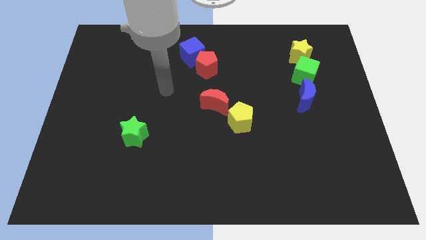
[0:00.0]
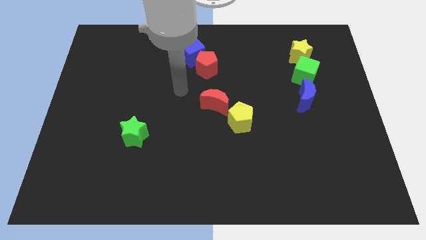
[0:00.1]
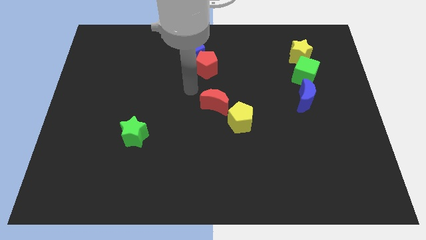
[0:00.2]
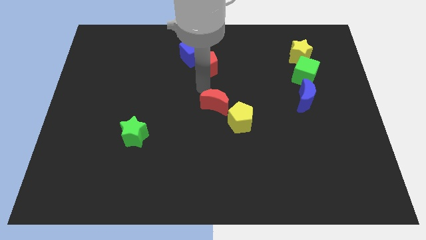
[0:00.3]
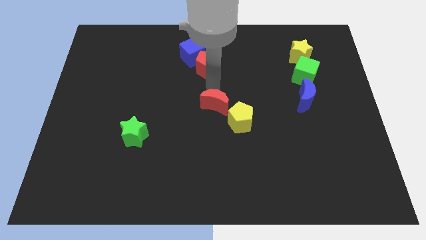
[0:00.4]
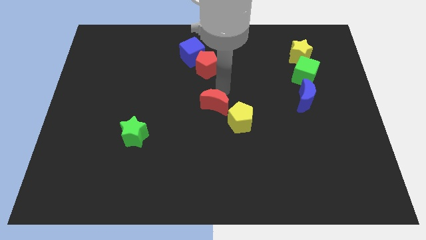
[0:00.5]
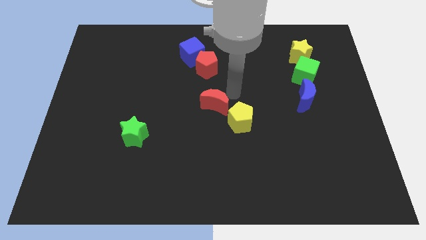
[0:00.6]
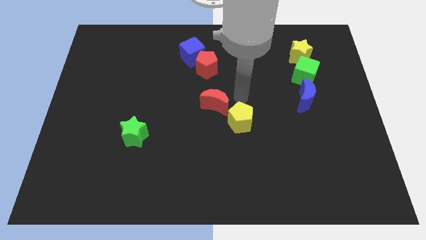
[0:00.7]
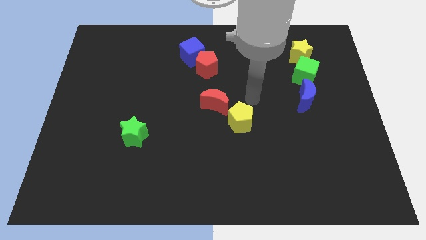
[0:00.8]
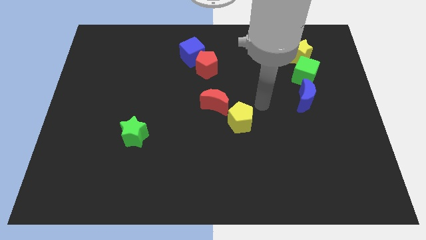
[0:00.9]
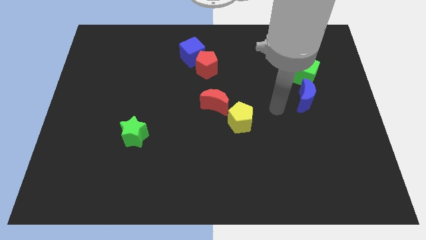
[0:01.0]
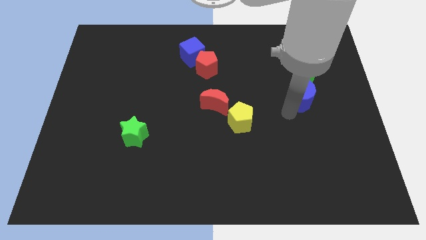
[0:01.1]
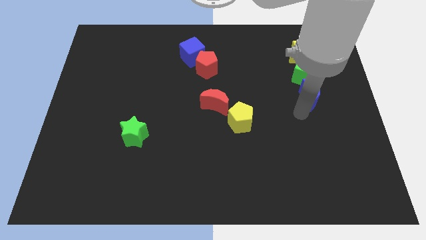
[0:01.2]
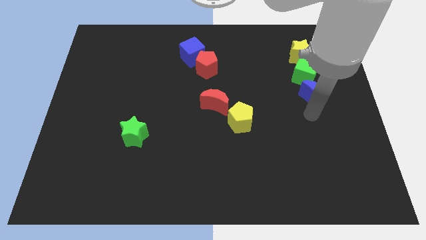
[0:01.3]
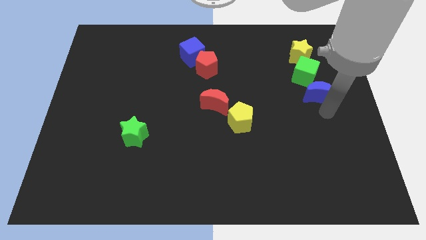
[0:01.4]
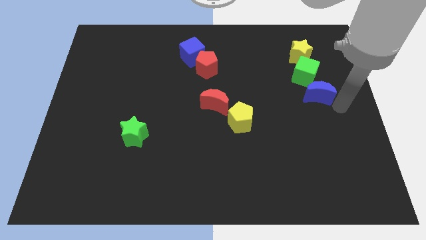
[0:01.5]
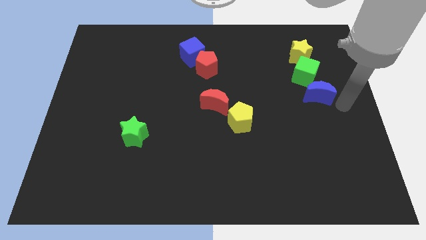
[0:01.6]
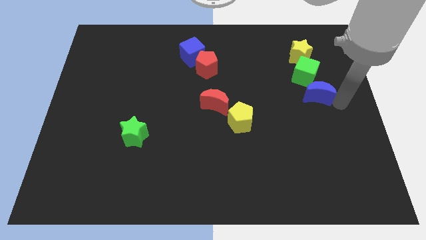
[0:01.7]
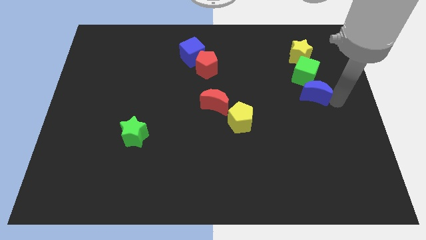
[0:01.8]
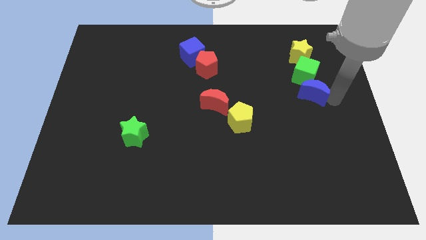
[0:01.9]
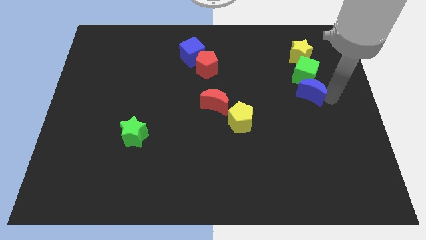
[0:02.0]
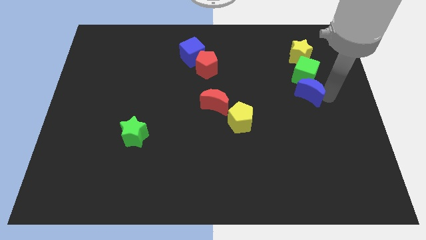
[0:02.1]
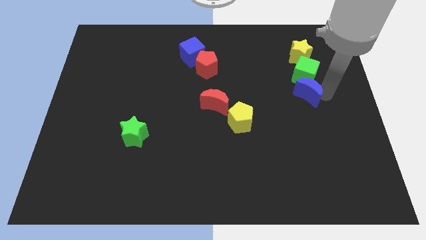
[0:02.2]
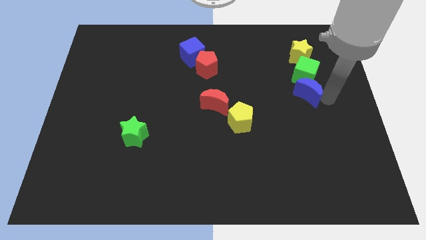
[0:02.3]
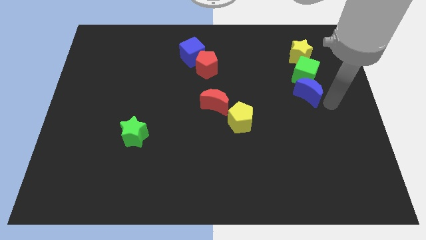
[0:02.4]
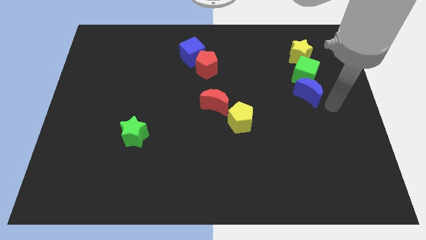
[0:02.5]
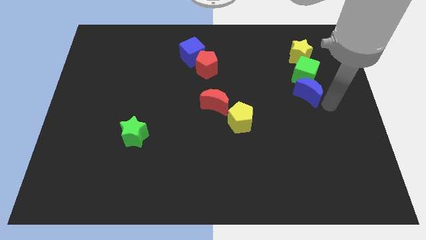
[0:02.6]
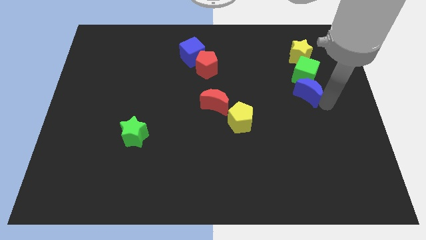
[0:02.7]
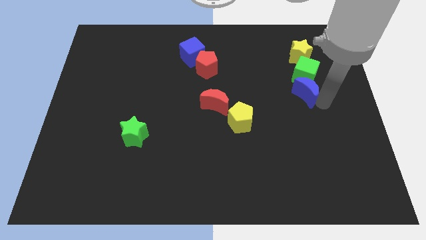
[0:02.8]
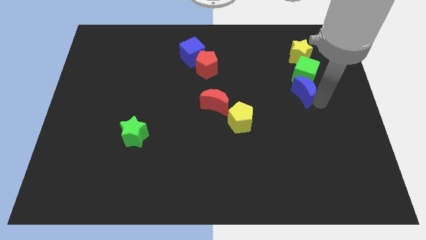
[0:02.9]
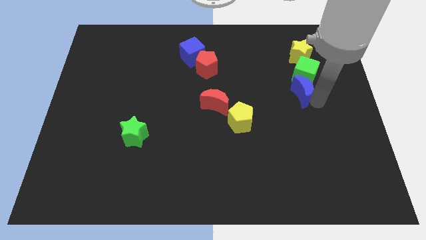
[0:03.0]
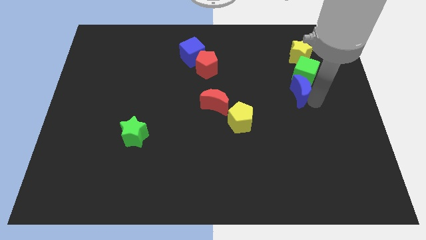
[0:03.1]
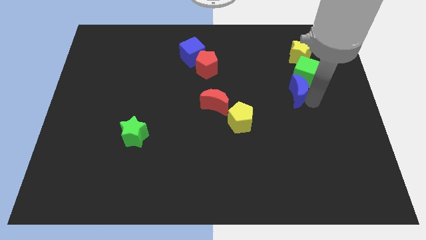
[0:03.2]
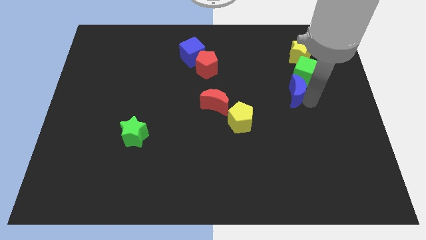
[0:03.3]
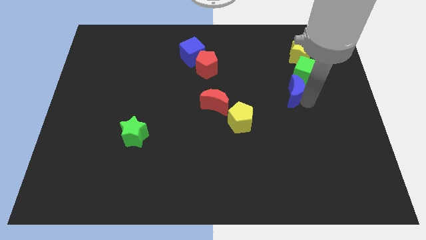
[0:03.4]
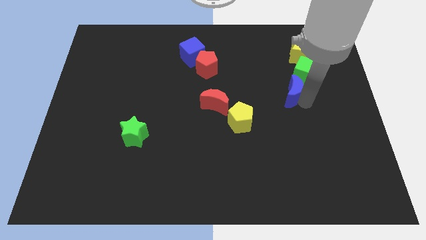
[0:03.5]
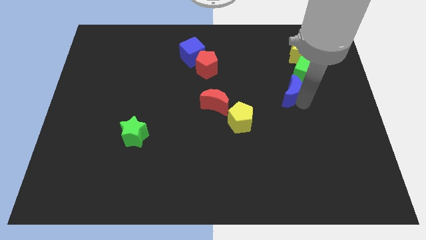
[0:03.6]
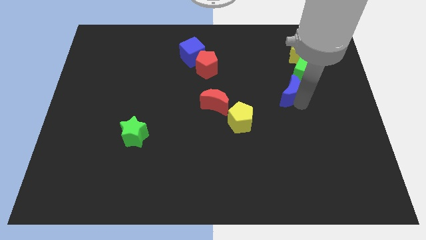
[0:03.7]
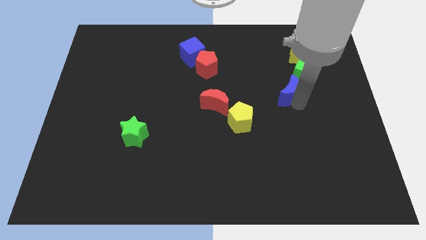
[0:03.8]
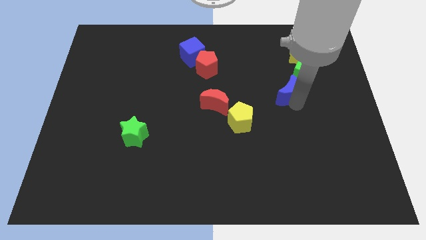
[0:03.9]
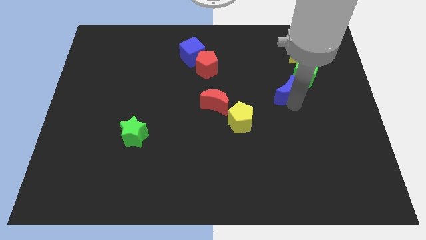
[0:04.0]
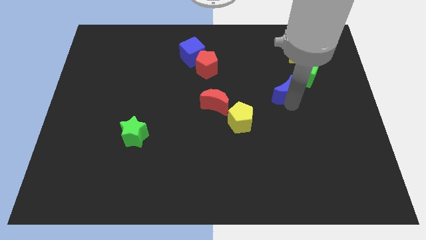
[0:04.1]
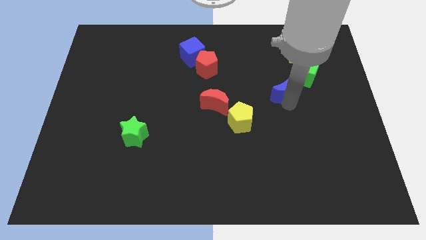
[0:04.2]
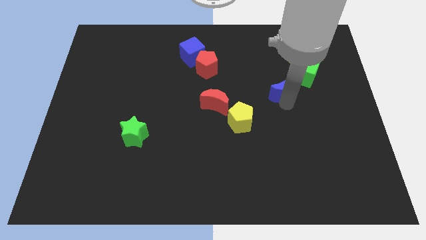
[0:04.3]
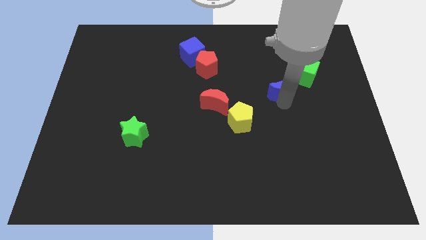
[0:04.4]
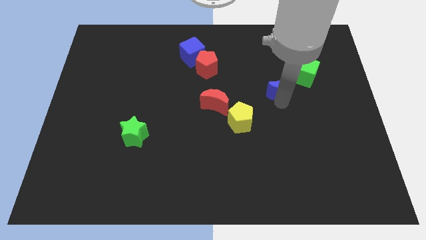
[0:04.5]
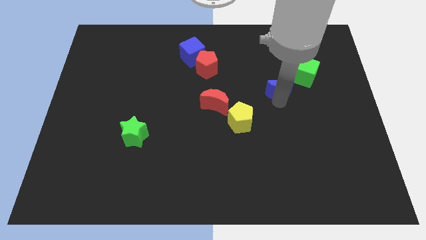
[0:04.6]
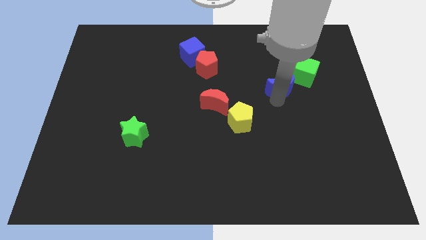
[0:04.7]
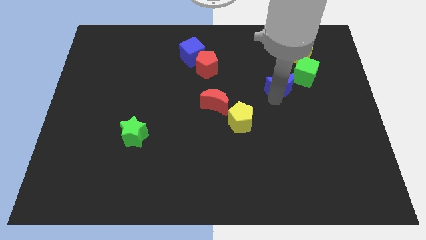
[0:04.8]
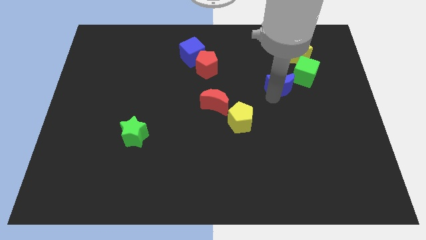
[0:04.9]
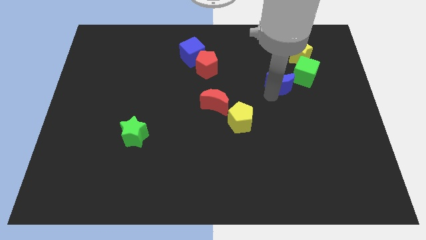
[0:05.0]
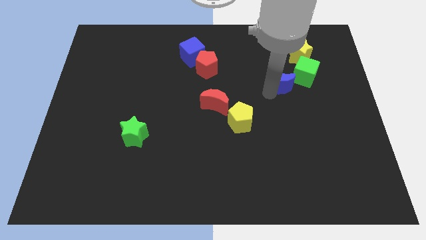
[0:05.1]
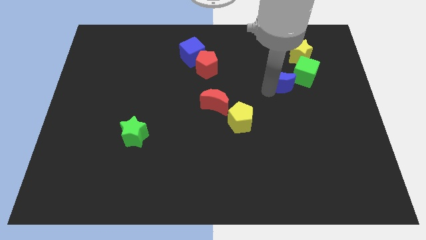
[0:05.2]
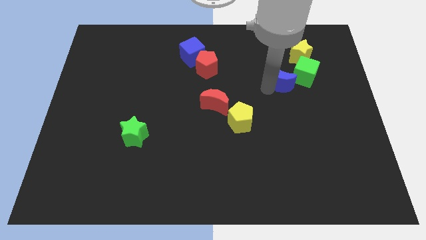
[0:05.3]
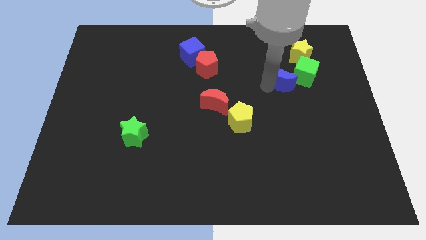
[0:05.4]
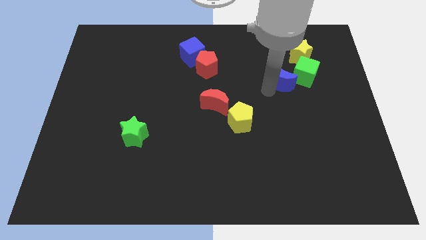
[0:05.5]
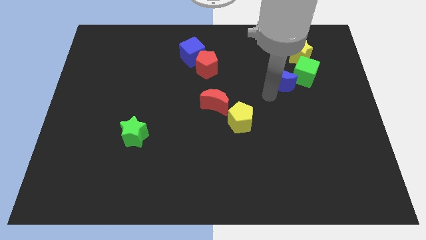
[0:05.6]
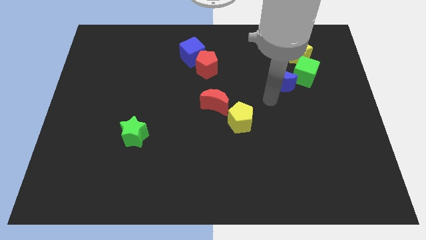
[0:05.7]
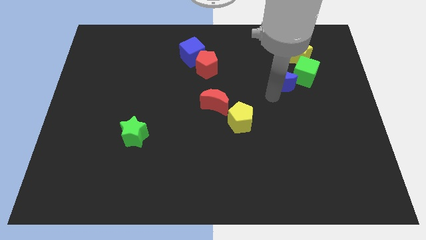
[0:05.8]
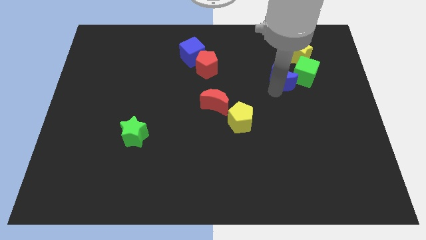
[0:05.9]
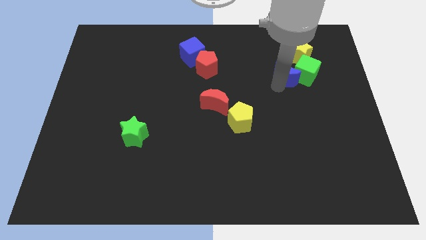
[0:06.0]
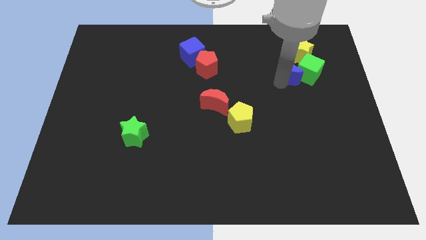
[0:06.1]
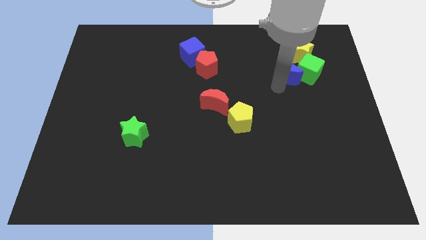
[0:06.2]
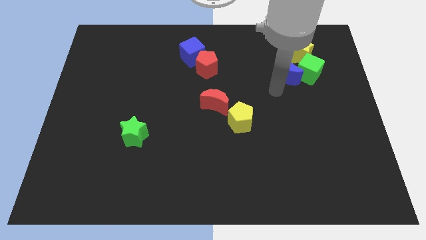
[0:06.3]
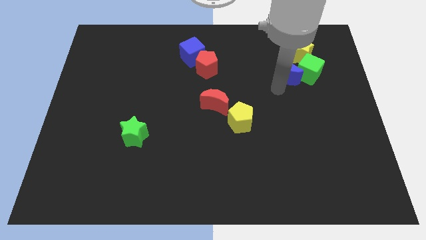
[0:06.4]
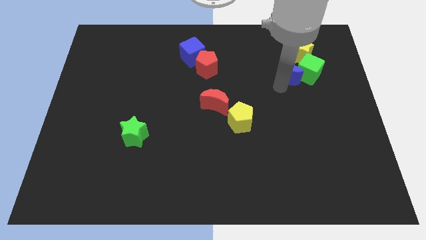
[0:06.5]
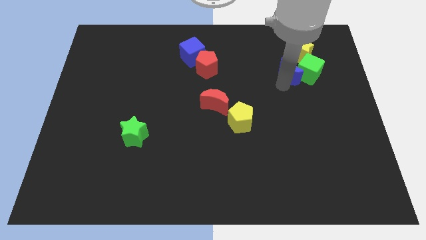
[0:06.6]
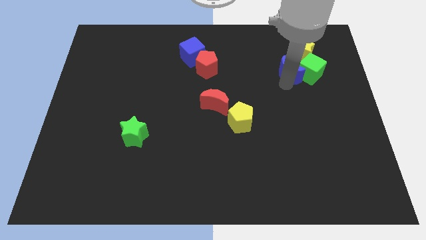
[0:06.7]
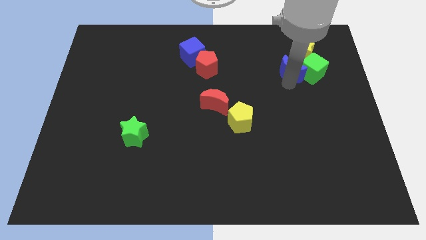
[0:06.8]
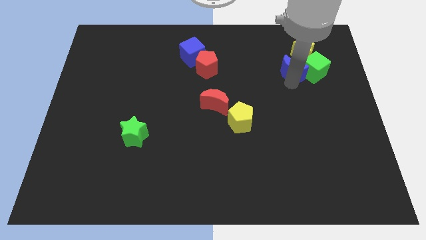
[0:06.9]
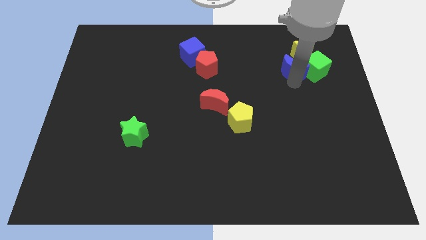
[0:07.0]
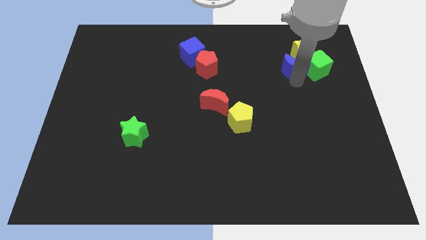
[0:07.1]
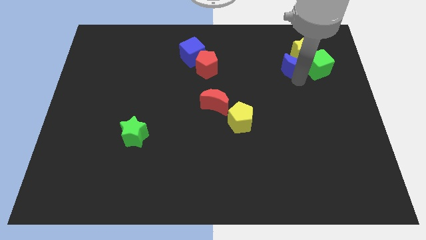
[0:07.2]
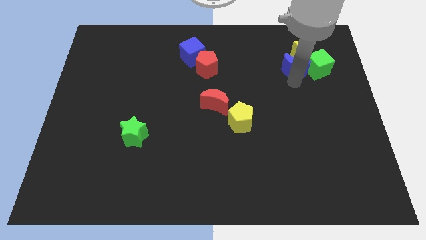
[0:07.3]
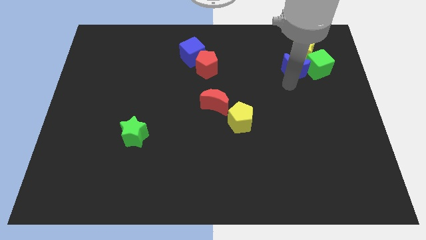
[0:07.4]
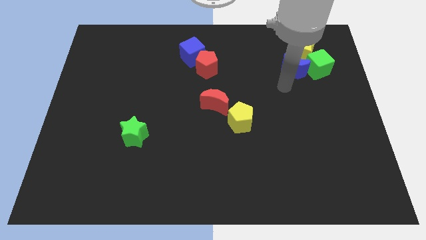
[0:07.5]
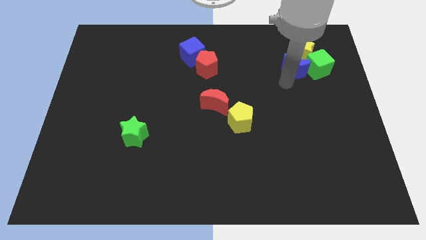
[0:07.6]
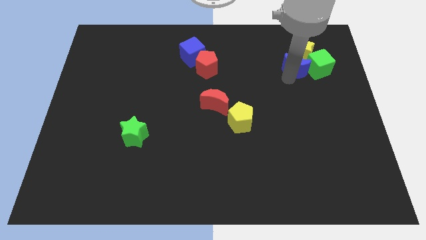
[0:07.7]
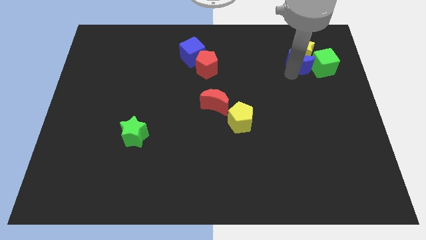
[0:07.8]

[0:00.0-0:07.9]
put the blue moon towards the yellow star
